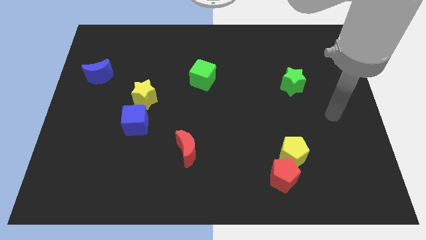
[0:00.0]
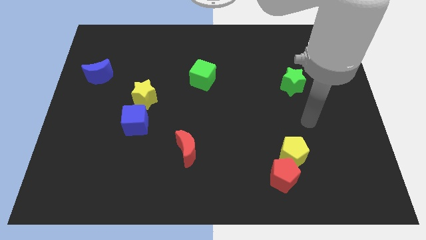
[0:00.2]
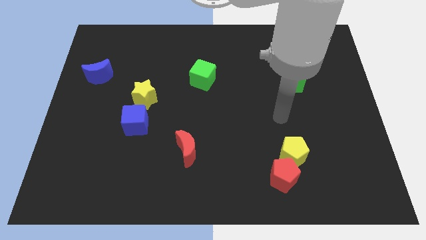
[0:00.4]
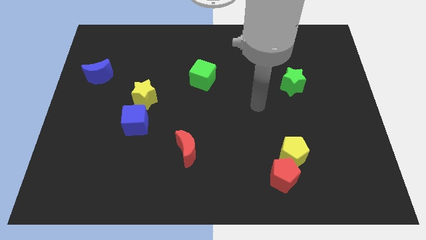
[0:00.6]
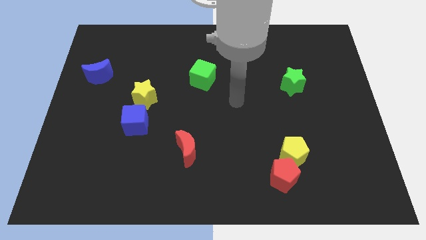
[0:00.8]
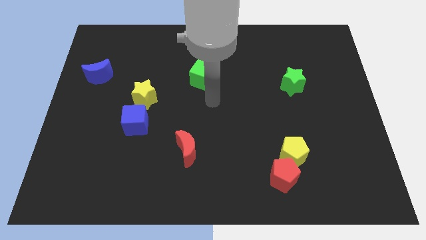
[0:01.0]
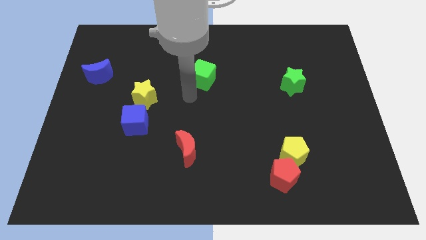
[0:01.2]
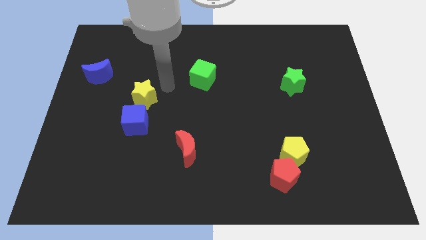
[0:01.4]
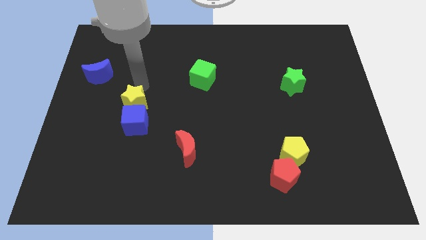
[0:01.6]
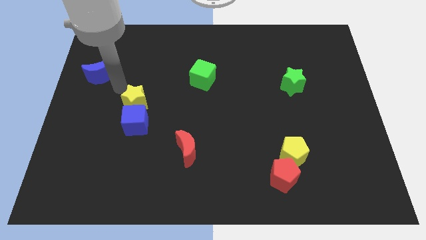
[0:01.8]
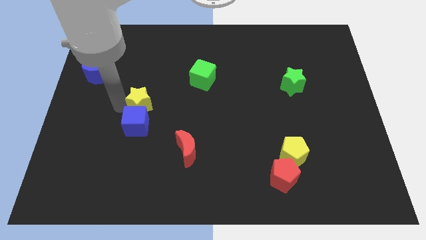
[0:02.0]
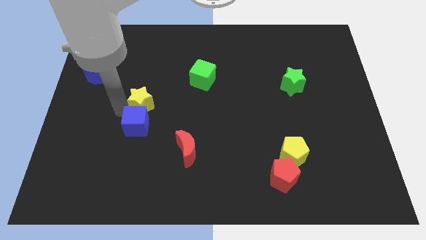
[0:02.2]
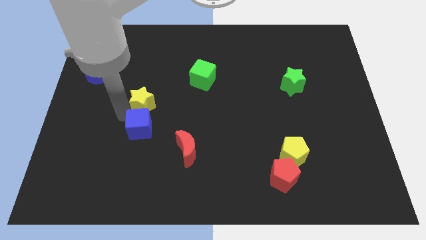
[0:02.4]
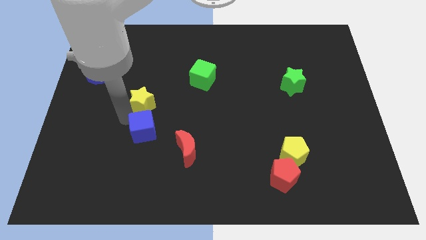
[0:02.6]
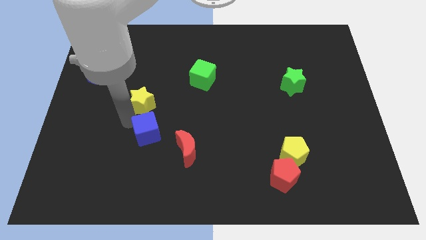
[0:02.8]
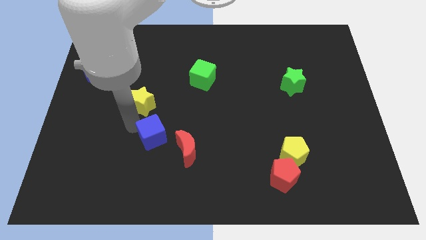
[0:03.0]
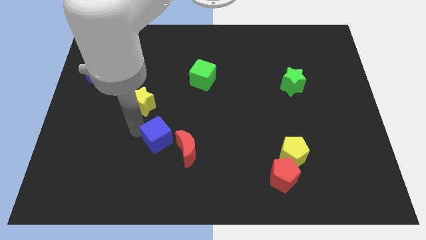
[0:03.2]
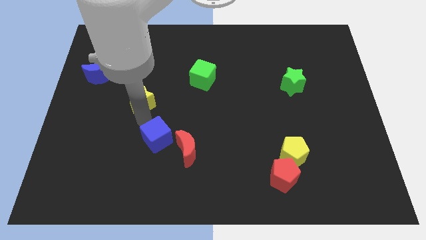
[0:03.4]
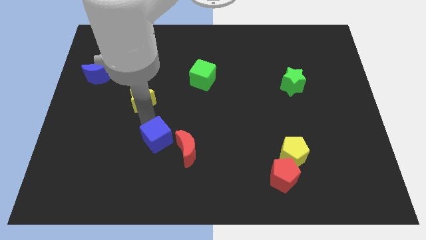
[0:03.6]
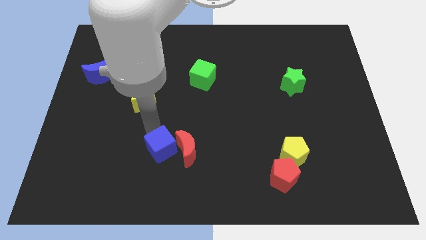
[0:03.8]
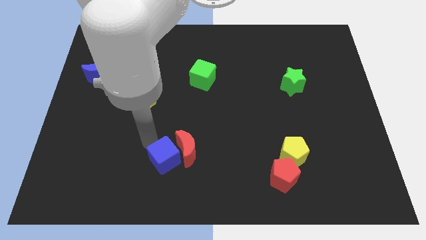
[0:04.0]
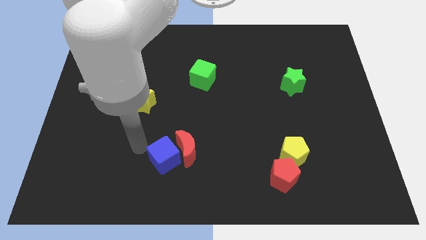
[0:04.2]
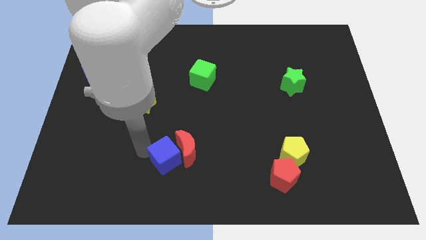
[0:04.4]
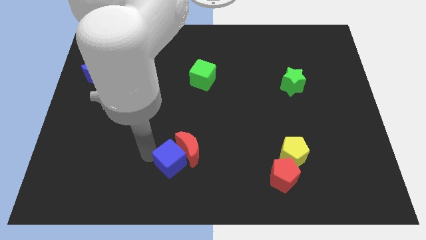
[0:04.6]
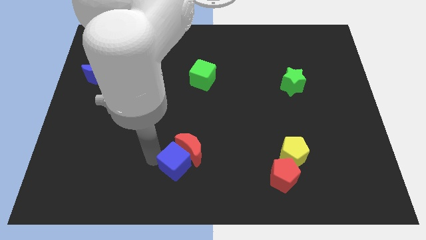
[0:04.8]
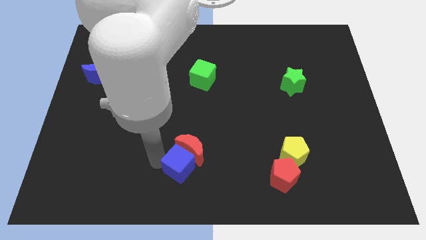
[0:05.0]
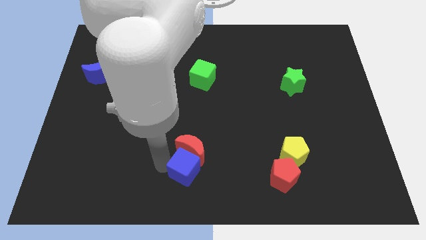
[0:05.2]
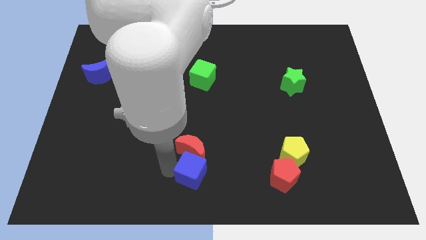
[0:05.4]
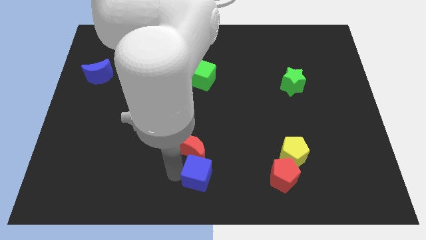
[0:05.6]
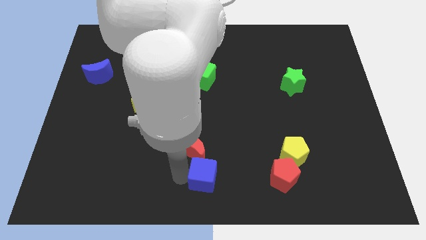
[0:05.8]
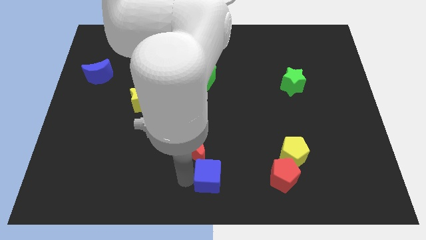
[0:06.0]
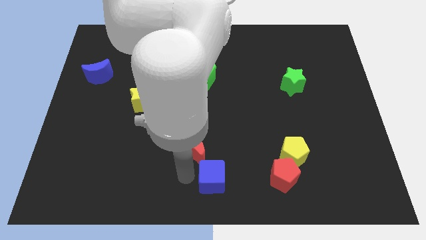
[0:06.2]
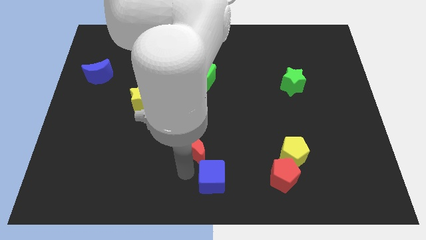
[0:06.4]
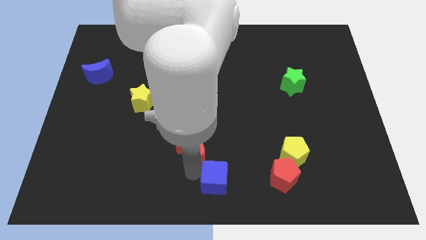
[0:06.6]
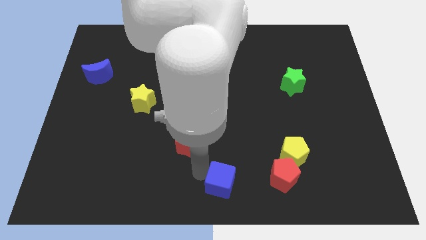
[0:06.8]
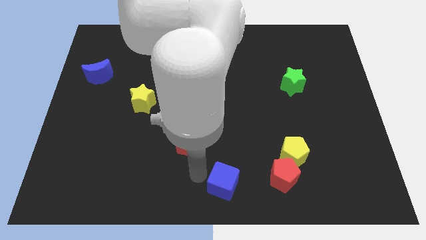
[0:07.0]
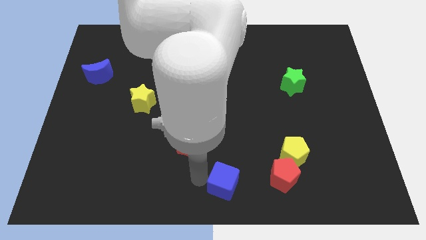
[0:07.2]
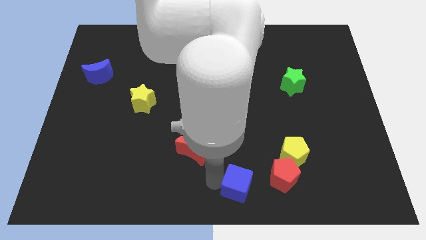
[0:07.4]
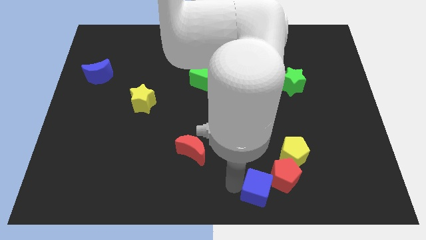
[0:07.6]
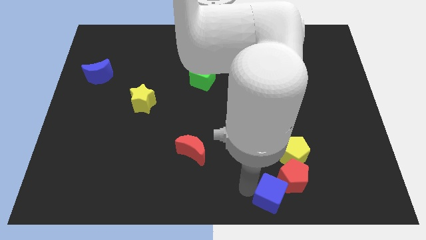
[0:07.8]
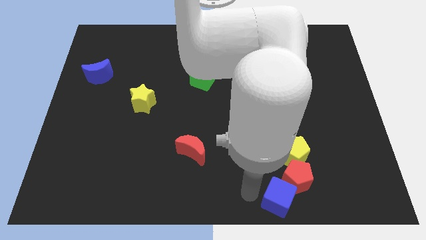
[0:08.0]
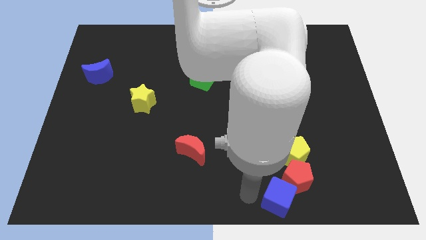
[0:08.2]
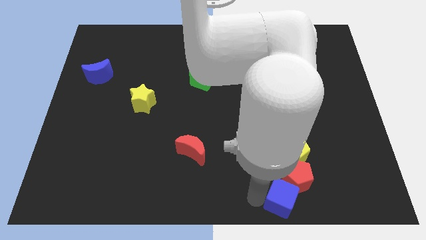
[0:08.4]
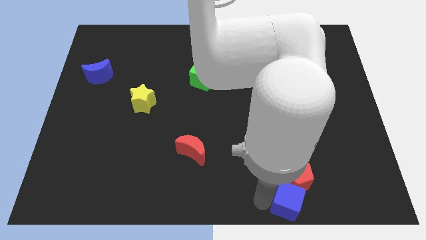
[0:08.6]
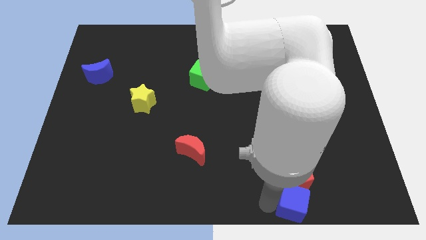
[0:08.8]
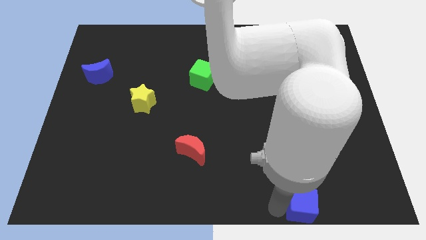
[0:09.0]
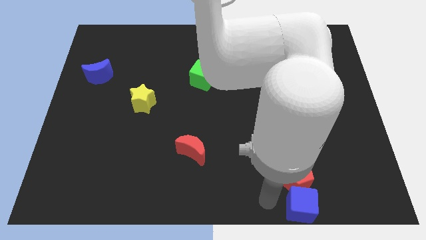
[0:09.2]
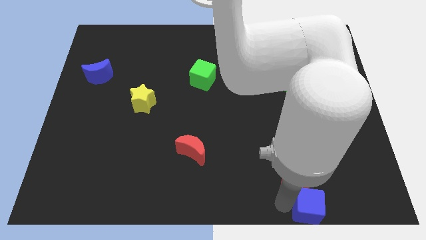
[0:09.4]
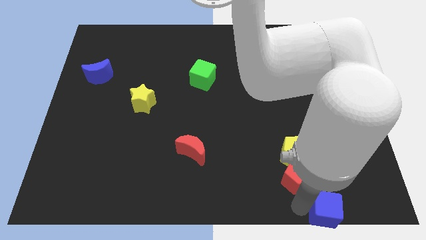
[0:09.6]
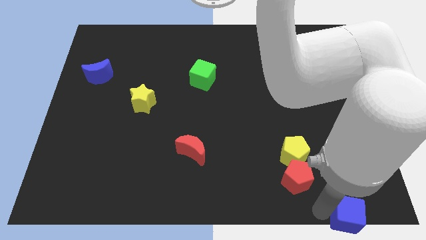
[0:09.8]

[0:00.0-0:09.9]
move the blue cube to the bottom right of the board

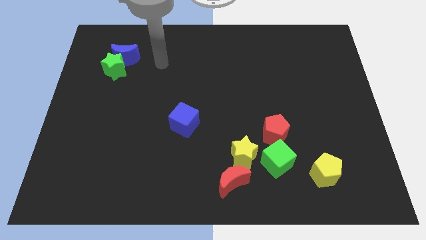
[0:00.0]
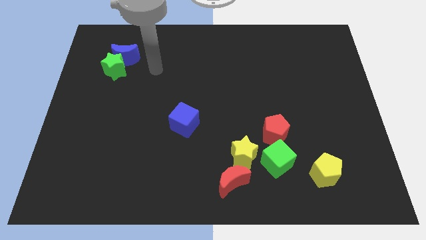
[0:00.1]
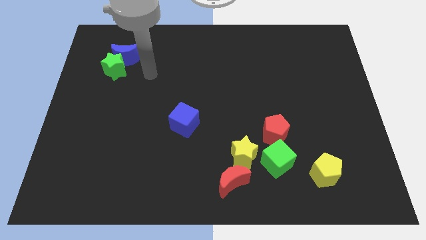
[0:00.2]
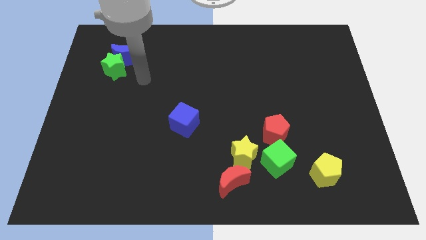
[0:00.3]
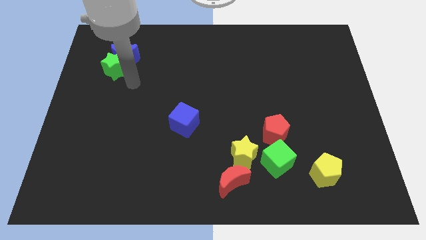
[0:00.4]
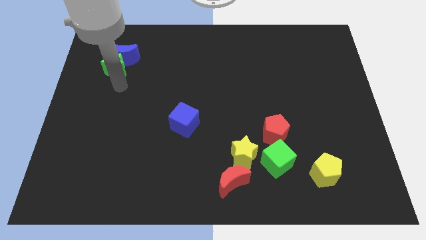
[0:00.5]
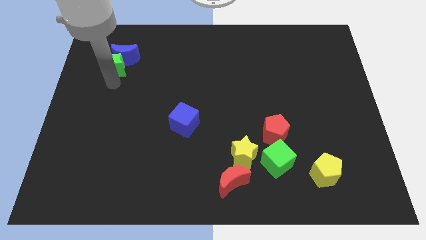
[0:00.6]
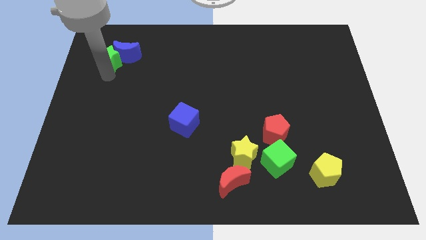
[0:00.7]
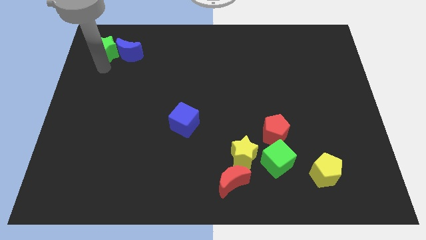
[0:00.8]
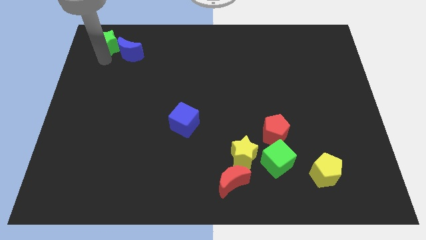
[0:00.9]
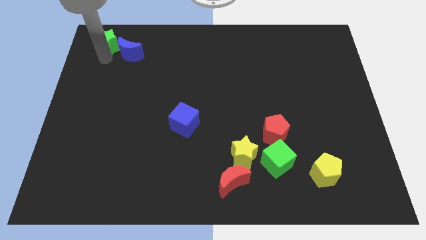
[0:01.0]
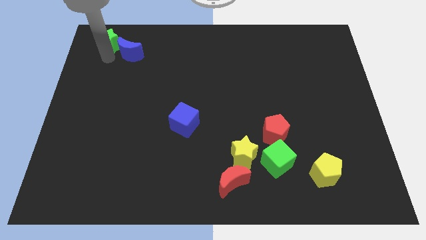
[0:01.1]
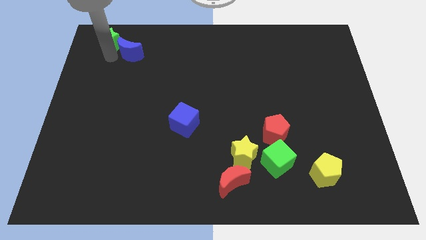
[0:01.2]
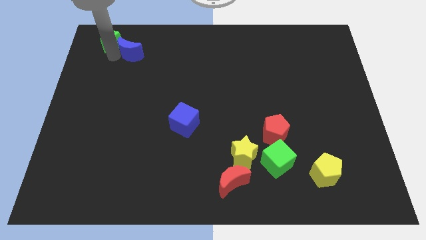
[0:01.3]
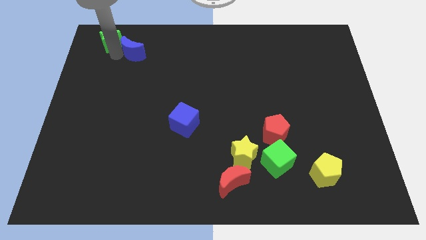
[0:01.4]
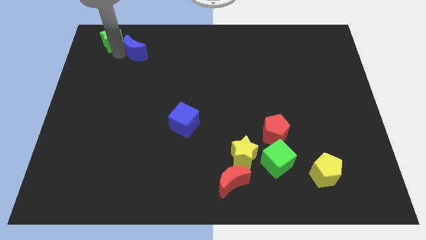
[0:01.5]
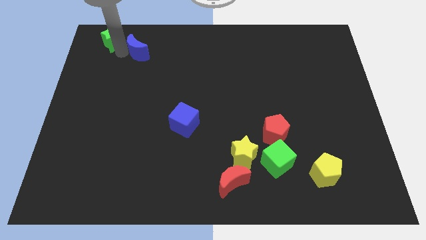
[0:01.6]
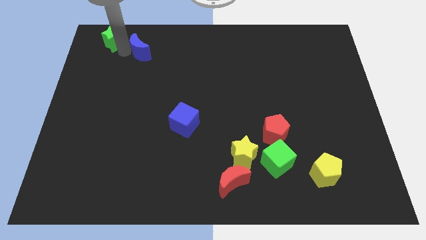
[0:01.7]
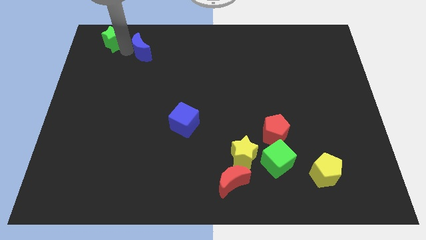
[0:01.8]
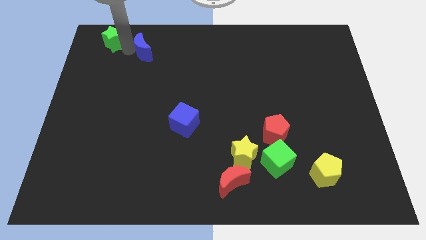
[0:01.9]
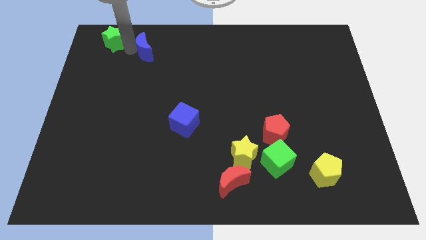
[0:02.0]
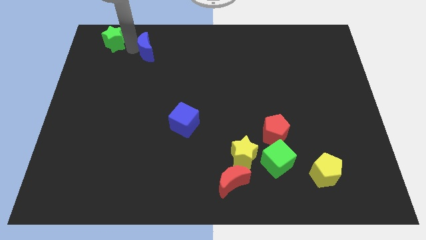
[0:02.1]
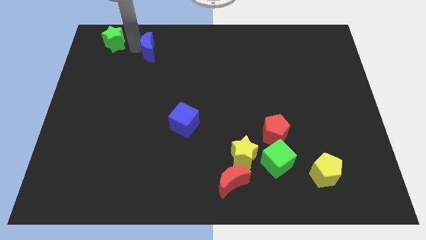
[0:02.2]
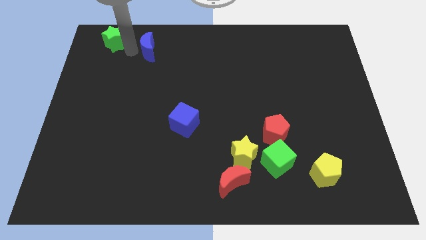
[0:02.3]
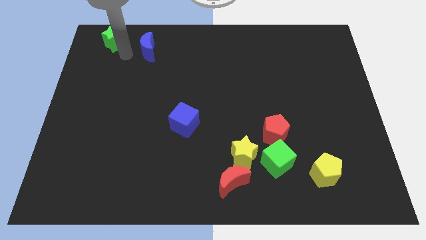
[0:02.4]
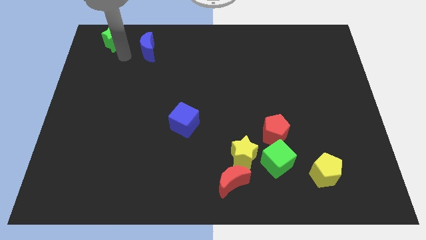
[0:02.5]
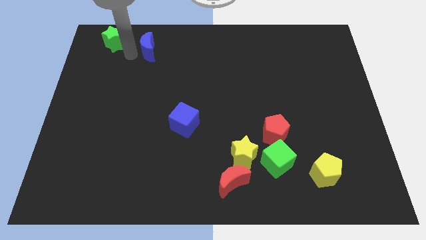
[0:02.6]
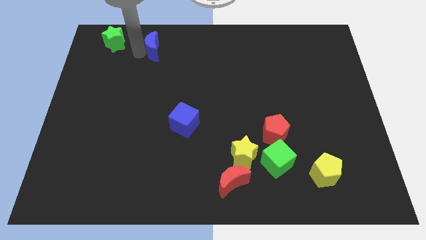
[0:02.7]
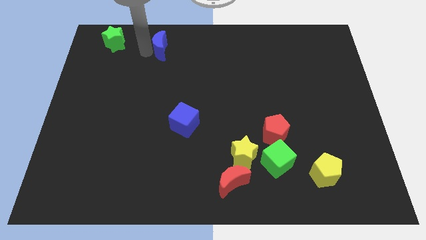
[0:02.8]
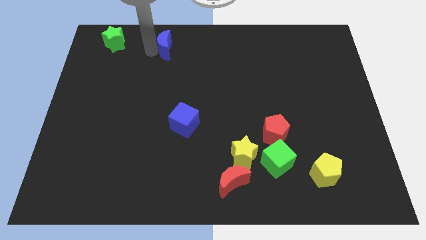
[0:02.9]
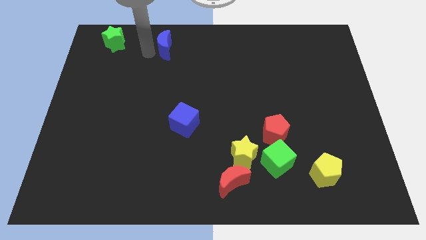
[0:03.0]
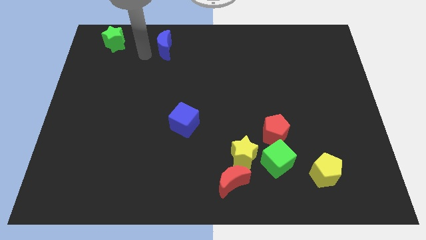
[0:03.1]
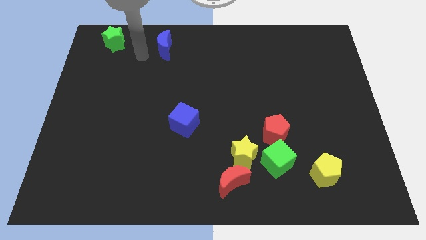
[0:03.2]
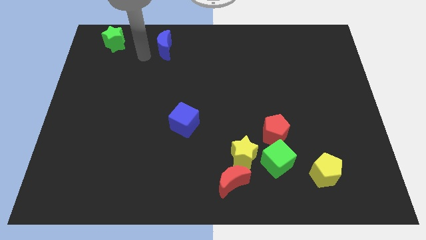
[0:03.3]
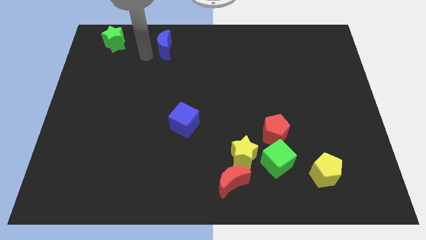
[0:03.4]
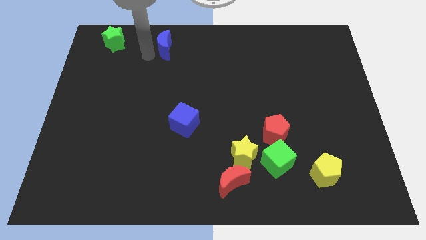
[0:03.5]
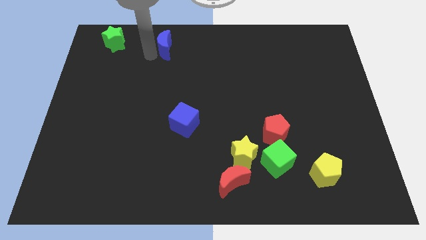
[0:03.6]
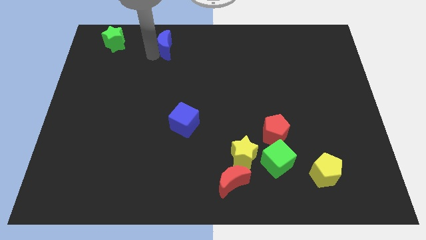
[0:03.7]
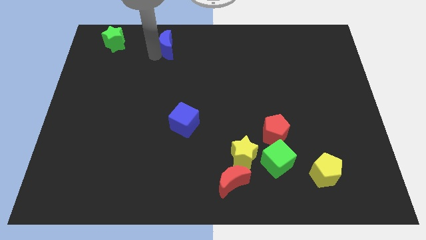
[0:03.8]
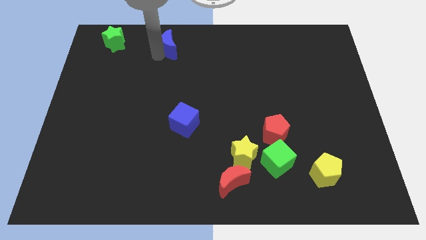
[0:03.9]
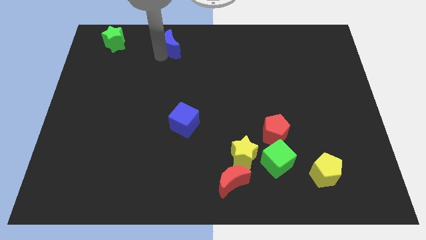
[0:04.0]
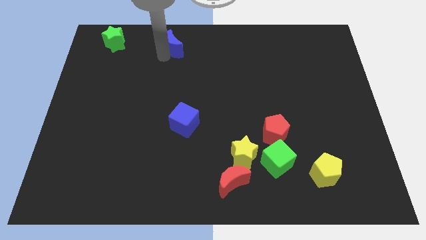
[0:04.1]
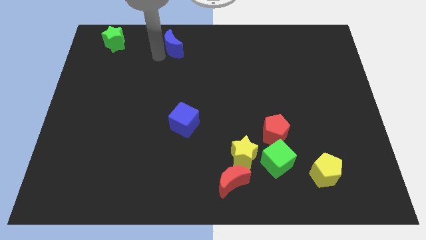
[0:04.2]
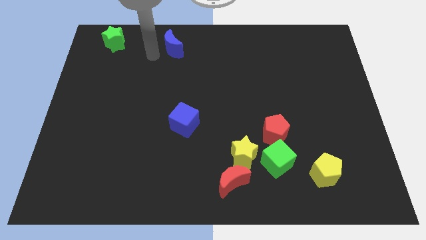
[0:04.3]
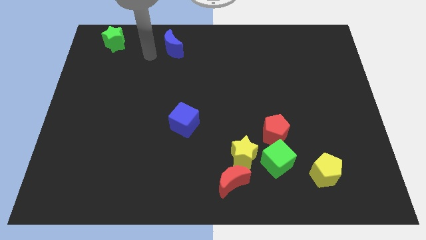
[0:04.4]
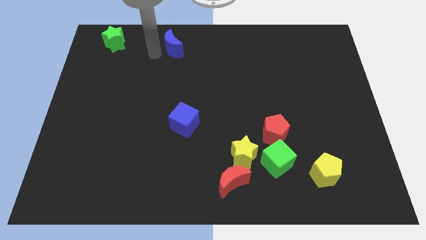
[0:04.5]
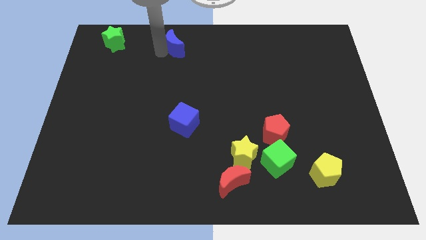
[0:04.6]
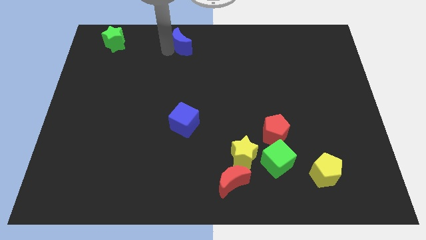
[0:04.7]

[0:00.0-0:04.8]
move the blue moon to the top
